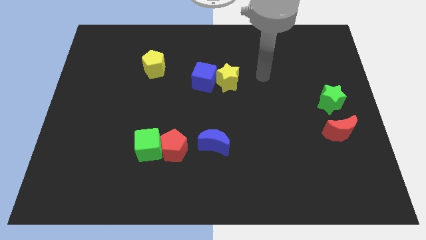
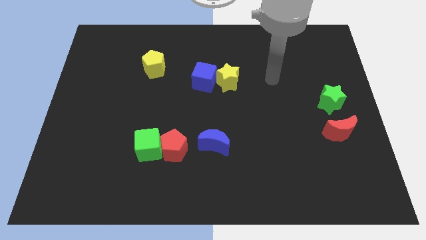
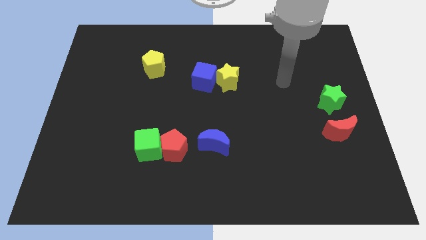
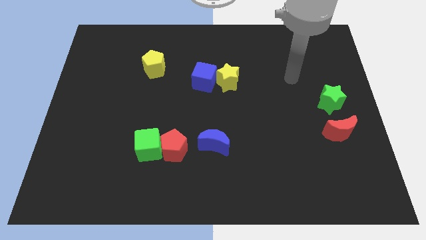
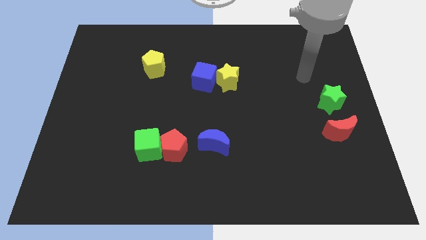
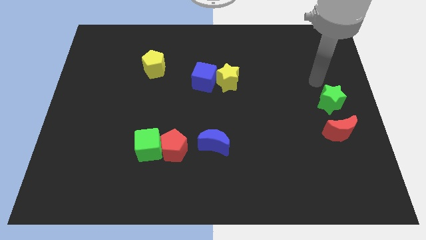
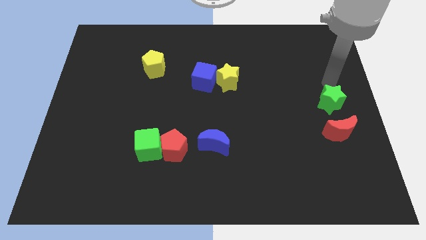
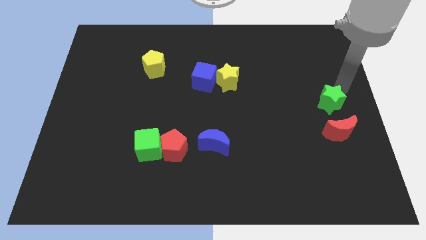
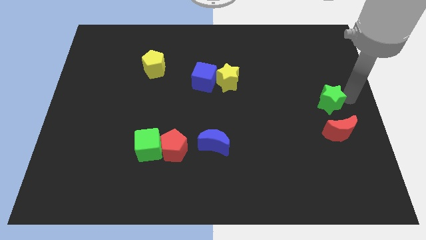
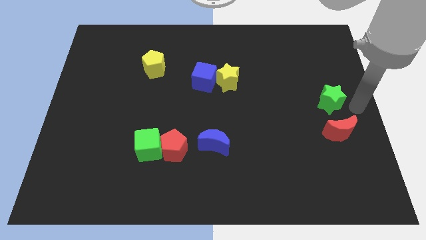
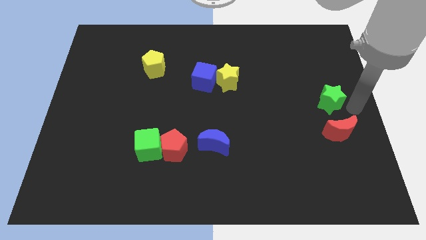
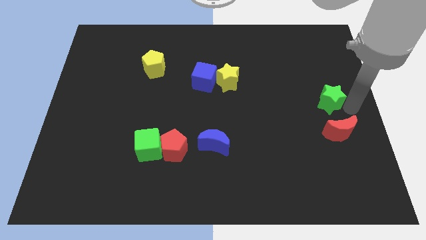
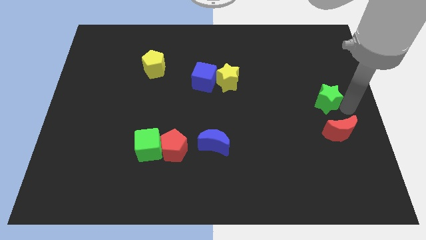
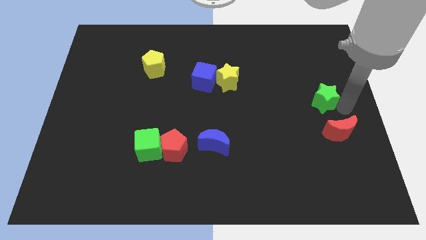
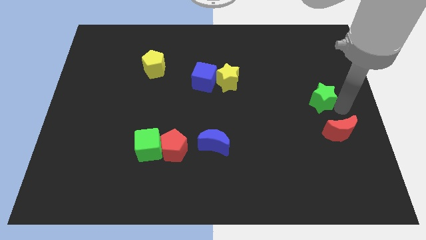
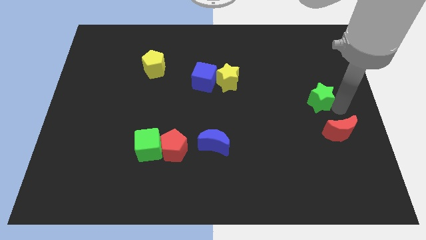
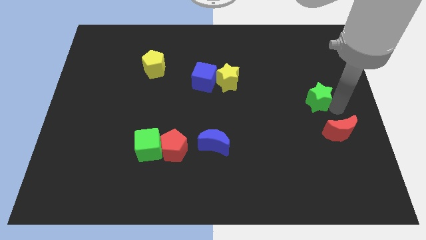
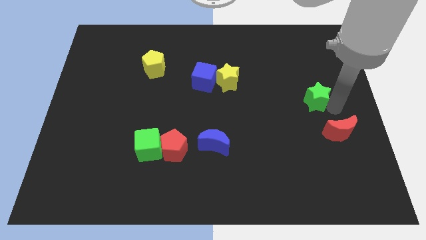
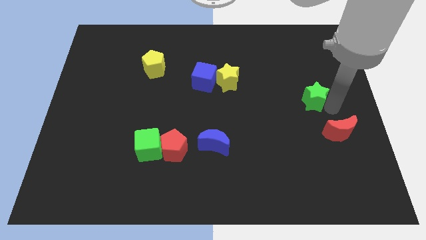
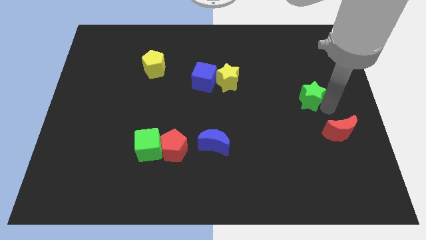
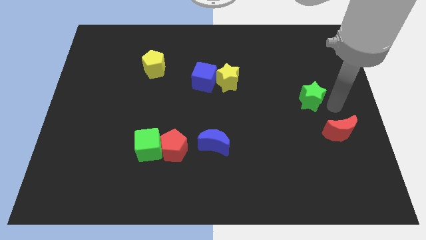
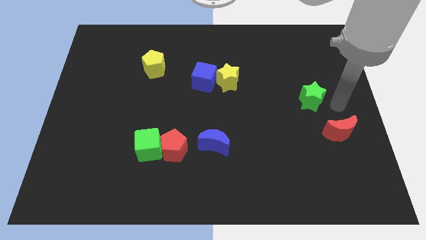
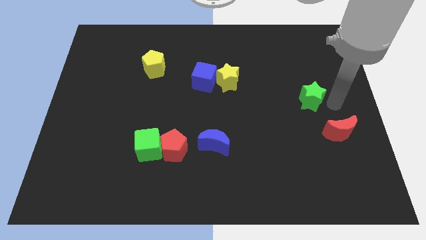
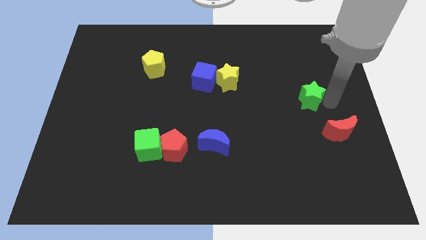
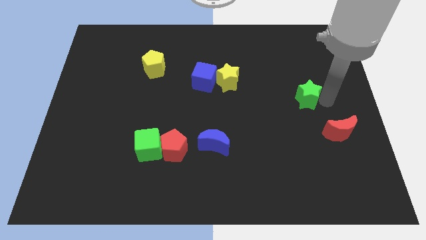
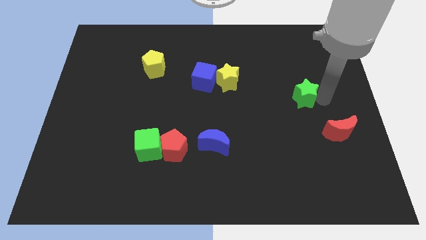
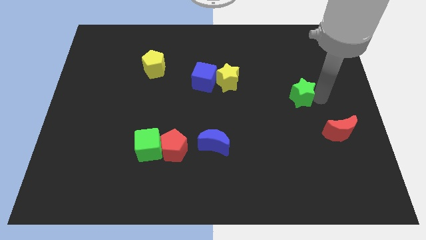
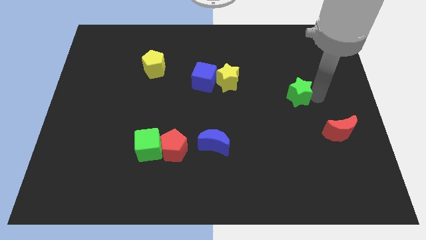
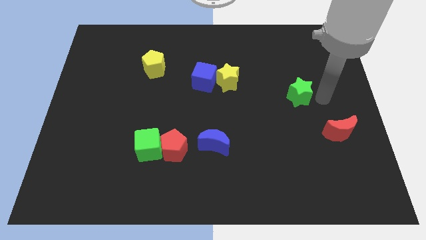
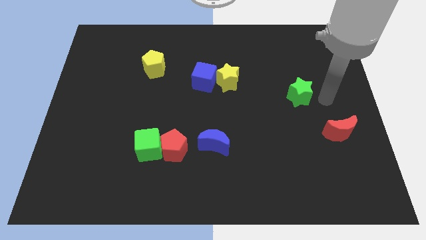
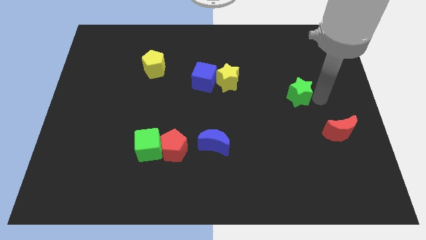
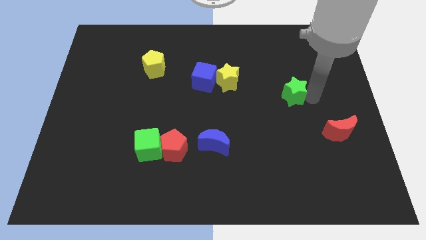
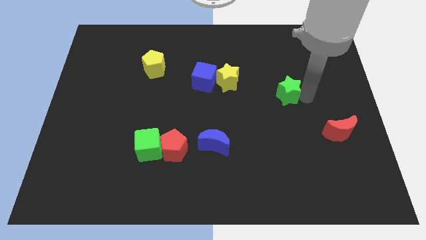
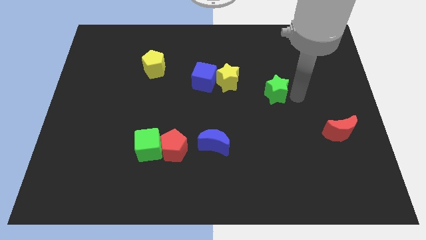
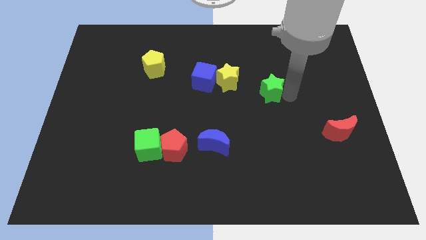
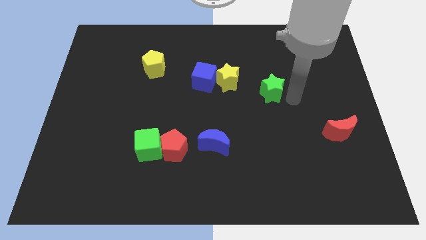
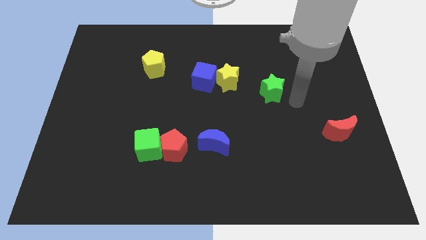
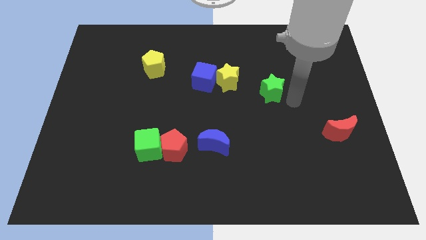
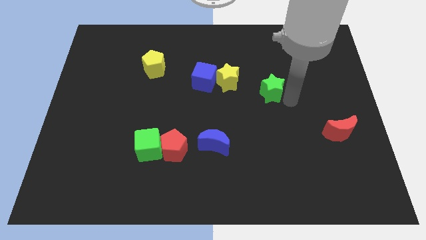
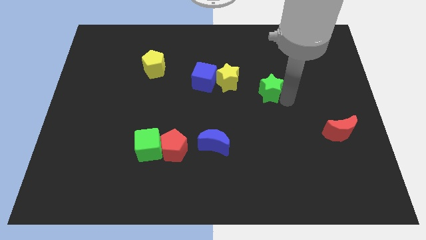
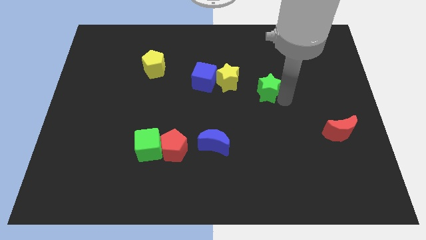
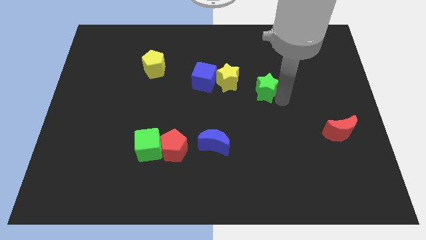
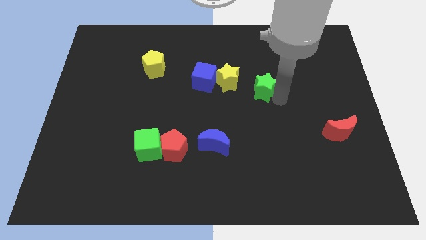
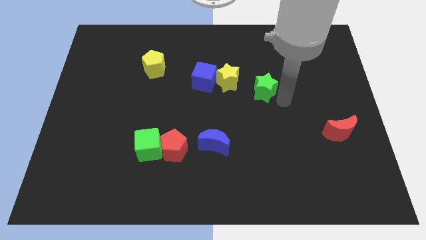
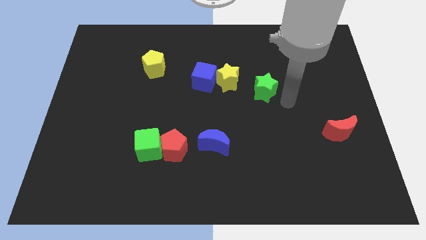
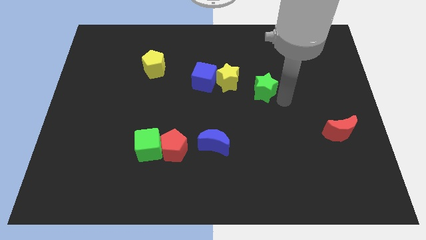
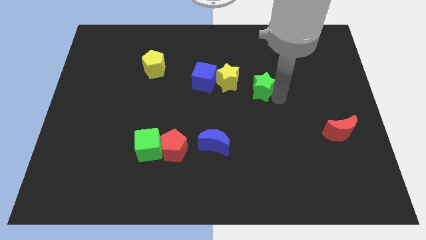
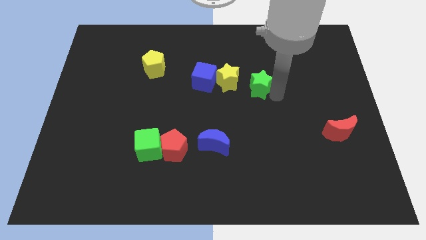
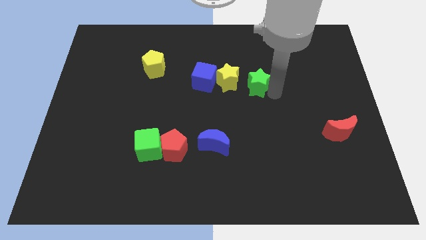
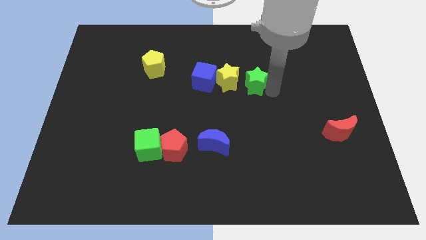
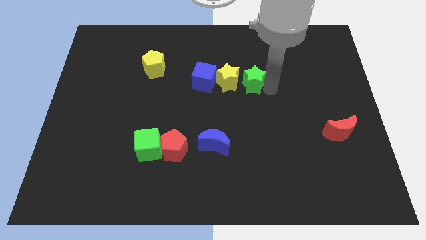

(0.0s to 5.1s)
slide the green star to the yellow star

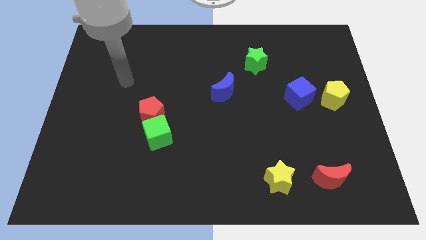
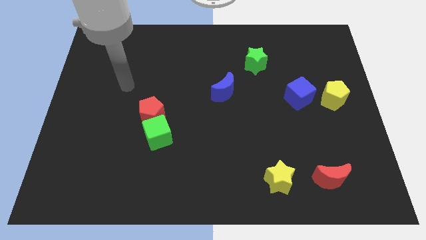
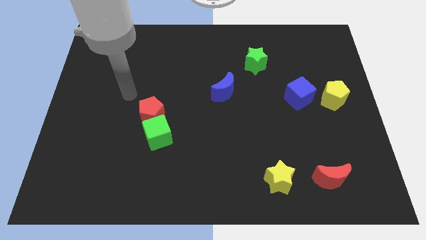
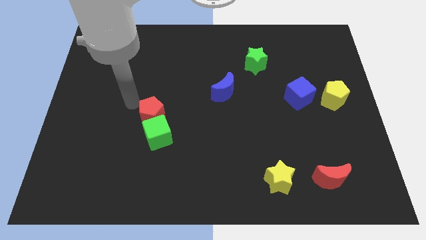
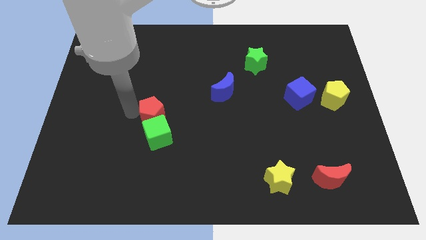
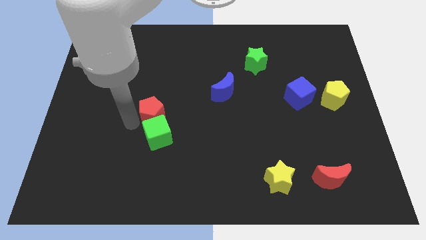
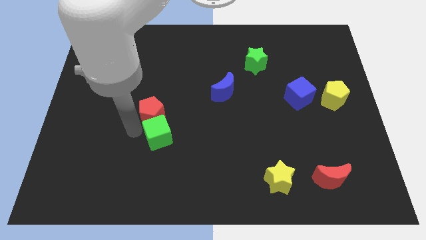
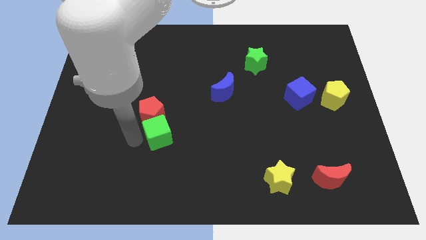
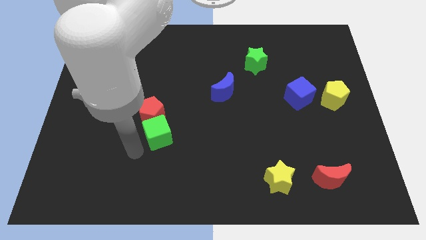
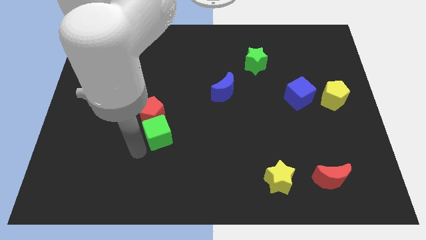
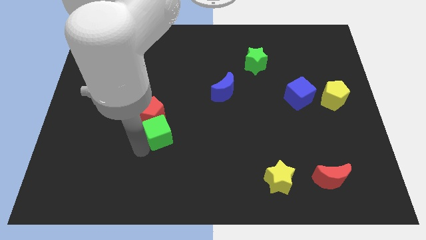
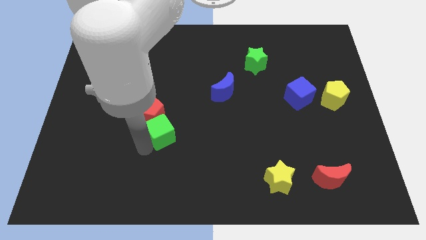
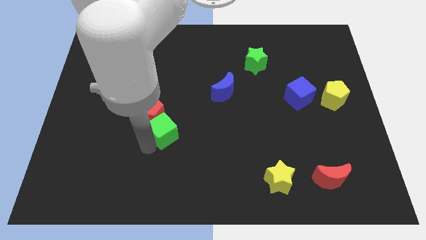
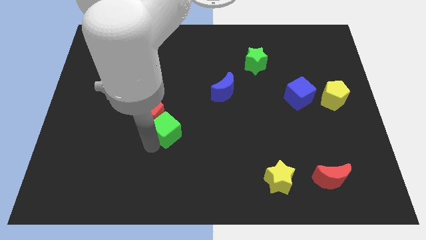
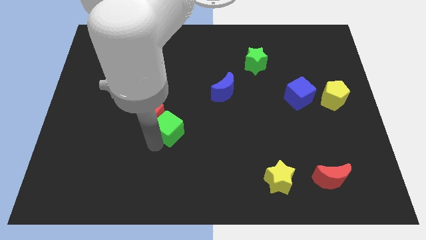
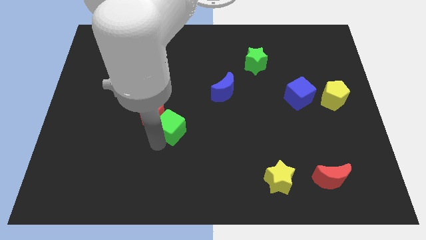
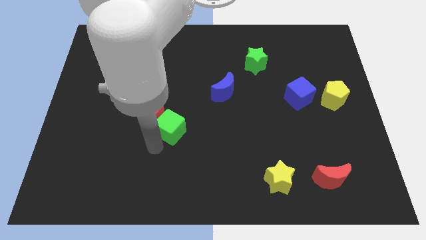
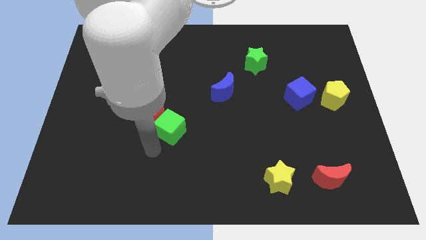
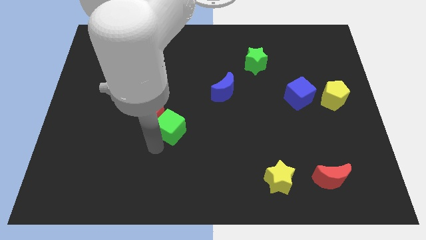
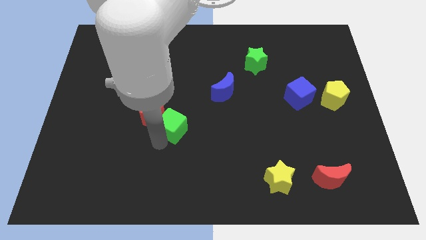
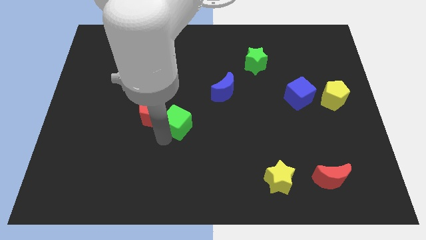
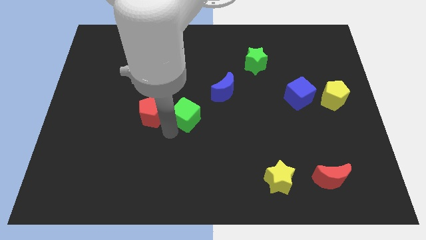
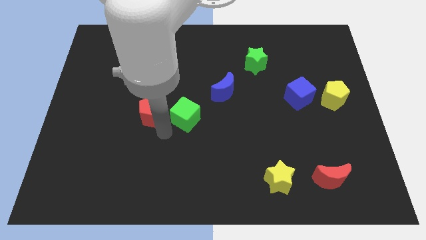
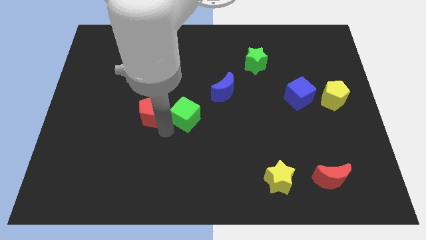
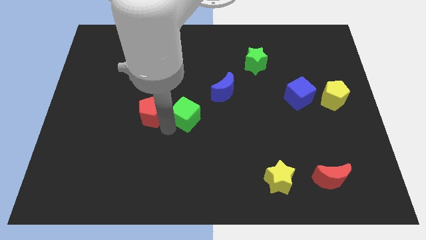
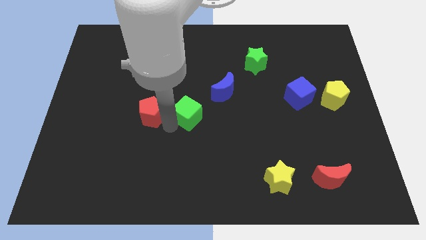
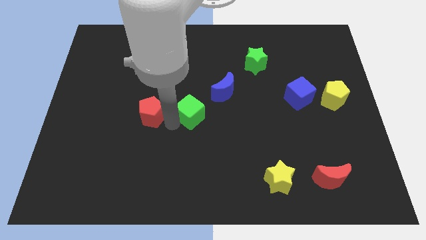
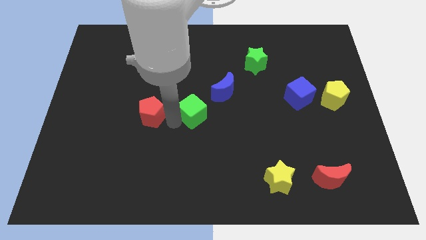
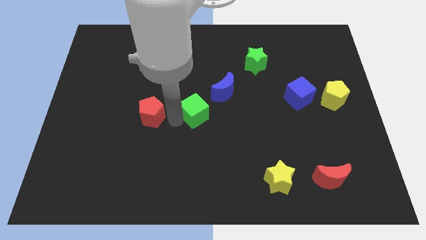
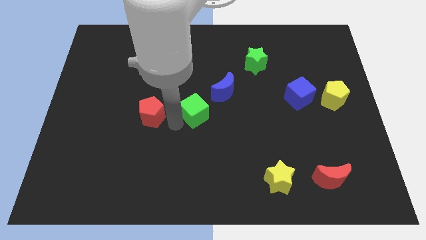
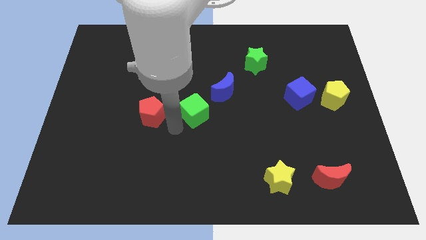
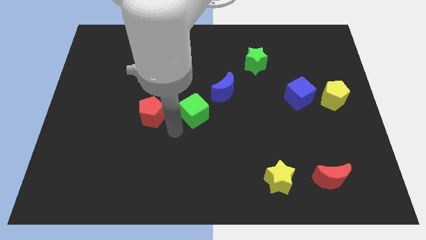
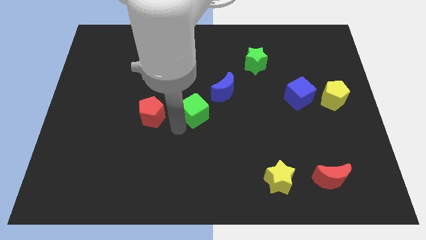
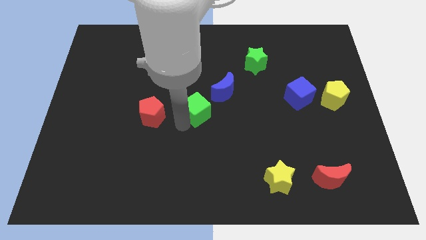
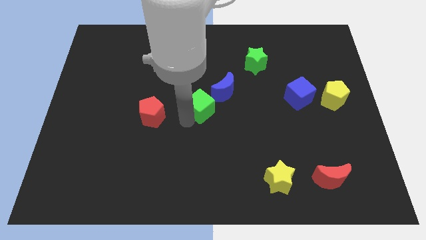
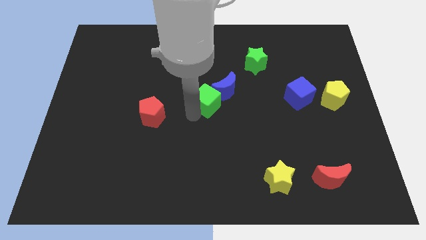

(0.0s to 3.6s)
slide the green cube next to the blue moon
